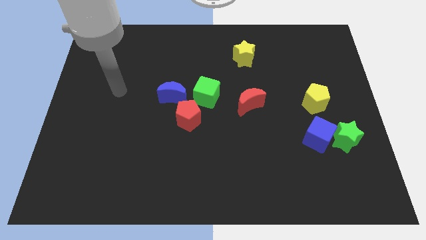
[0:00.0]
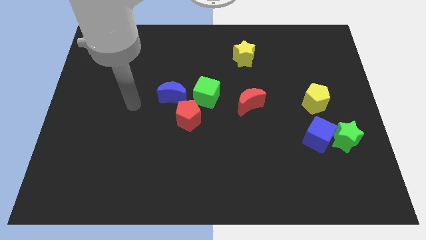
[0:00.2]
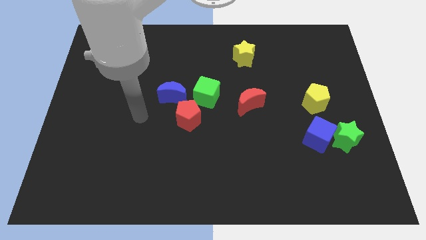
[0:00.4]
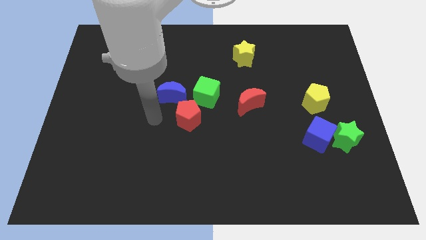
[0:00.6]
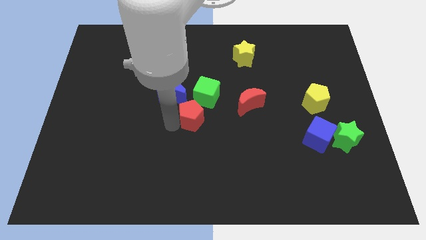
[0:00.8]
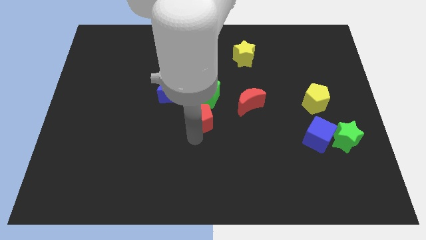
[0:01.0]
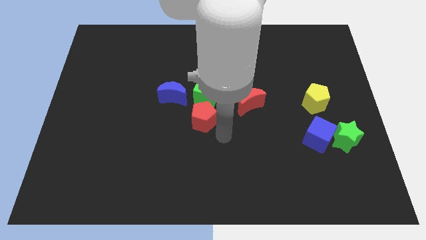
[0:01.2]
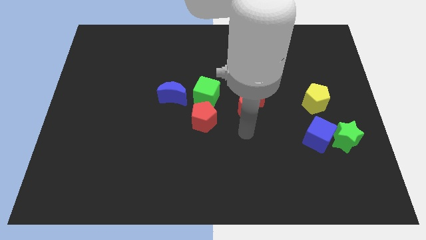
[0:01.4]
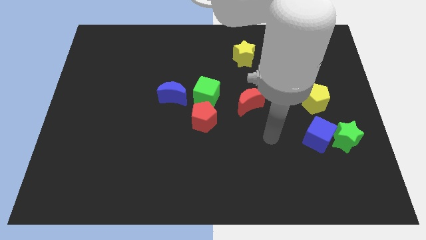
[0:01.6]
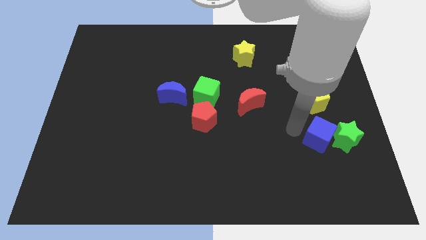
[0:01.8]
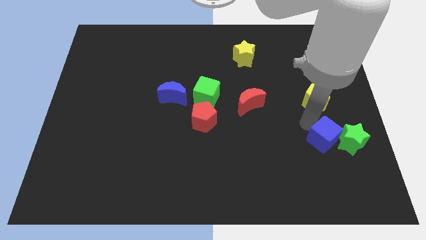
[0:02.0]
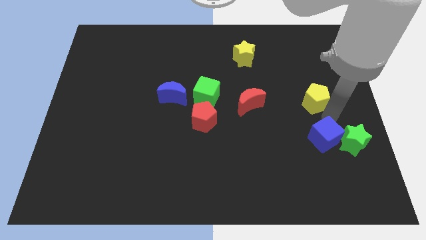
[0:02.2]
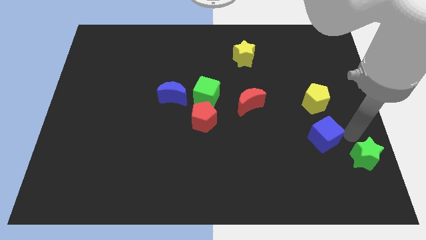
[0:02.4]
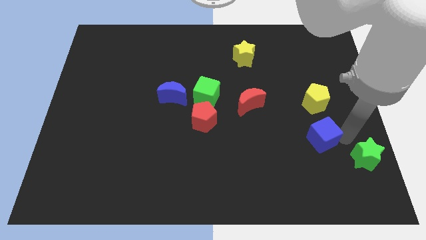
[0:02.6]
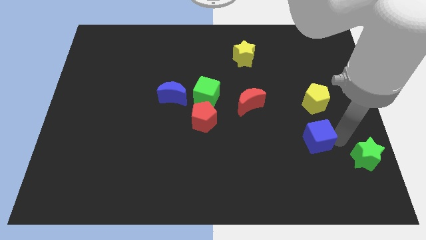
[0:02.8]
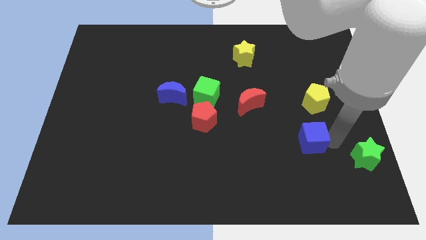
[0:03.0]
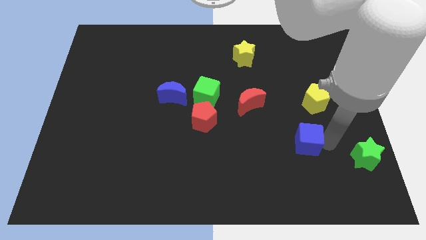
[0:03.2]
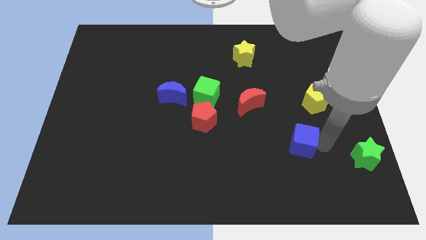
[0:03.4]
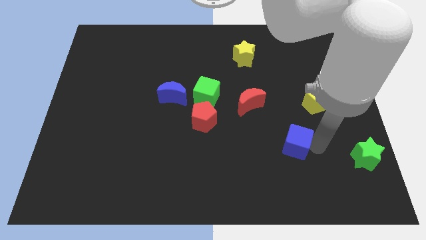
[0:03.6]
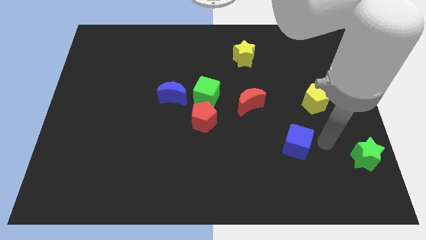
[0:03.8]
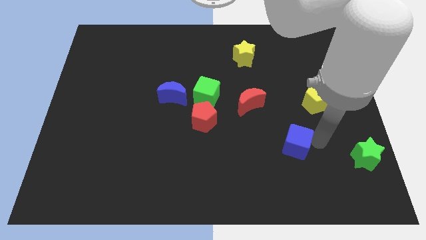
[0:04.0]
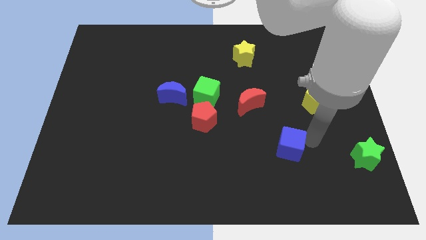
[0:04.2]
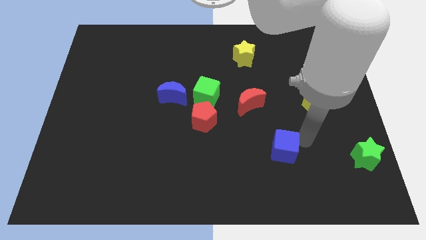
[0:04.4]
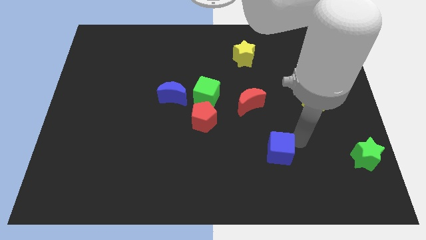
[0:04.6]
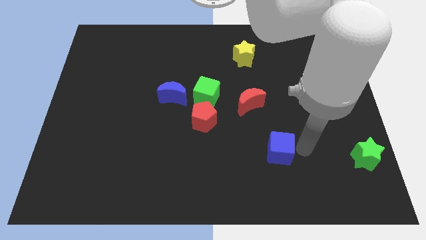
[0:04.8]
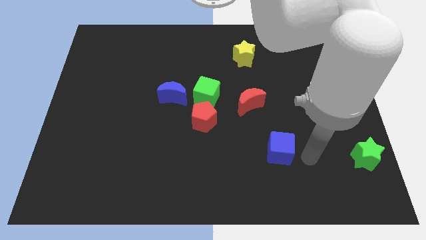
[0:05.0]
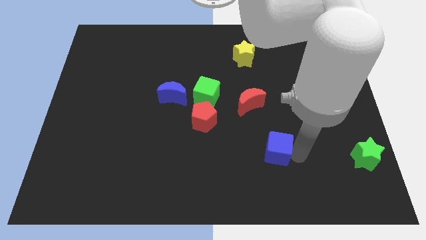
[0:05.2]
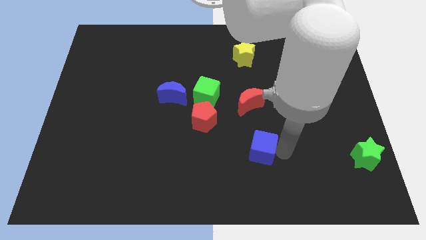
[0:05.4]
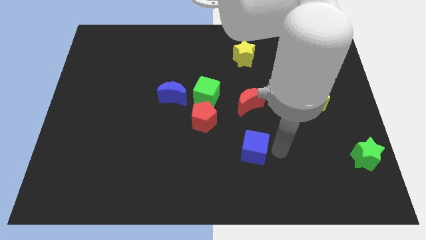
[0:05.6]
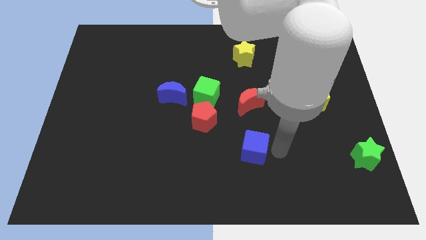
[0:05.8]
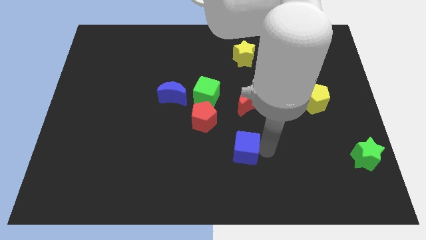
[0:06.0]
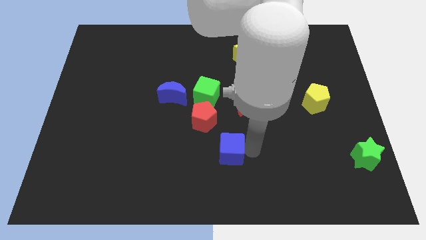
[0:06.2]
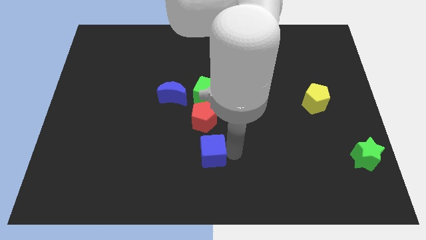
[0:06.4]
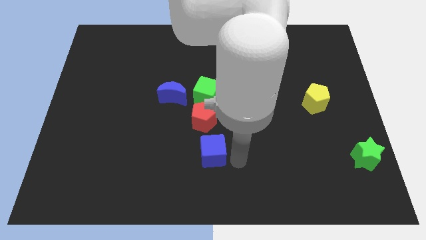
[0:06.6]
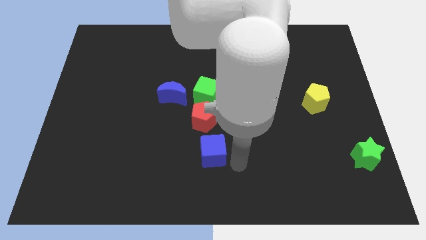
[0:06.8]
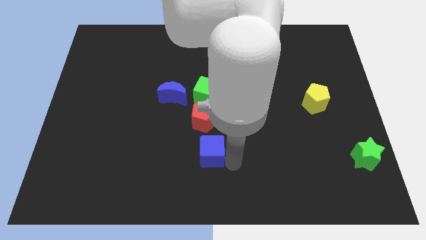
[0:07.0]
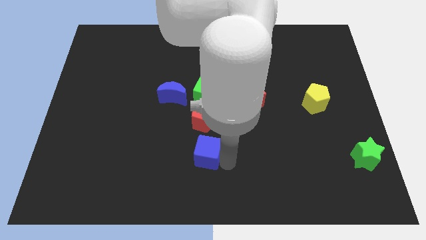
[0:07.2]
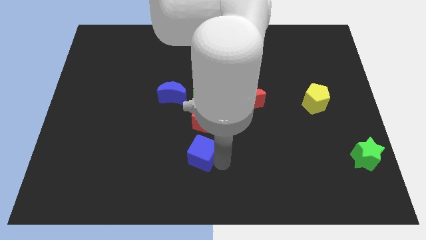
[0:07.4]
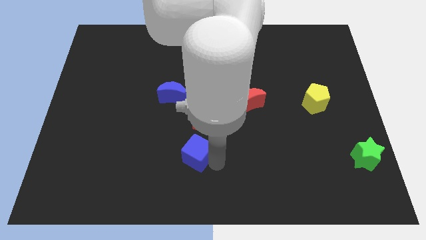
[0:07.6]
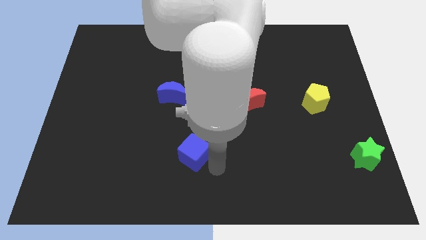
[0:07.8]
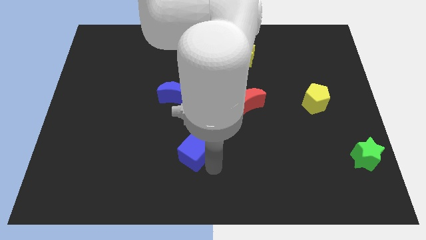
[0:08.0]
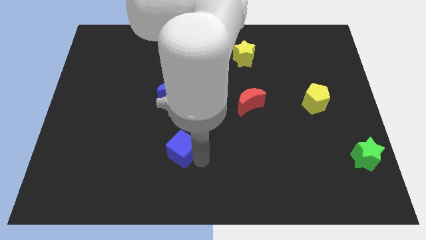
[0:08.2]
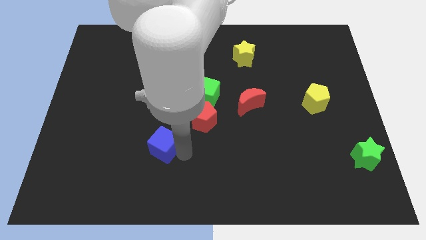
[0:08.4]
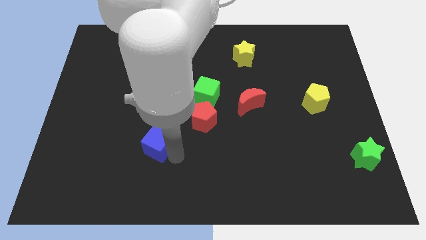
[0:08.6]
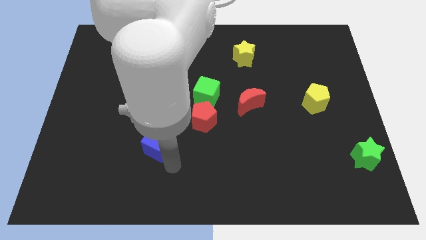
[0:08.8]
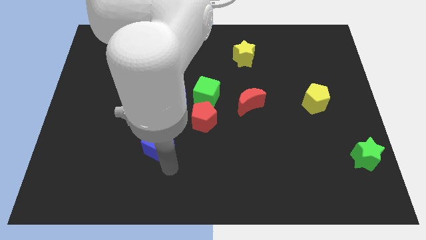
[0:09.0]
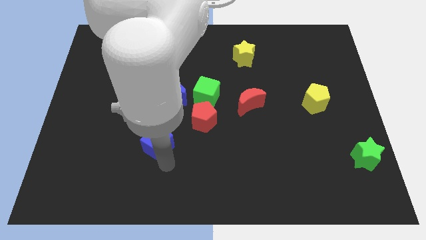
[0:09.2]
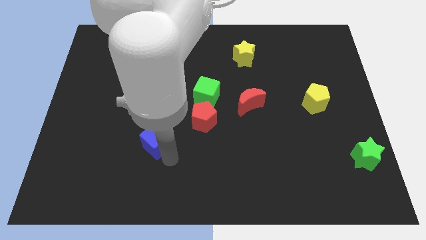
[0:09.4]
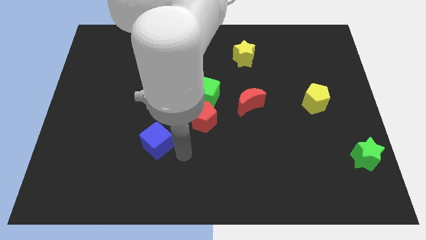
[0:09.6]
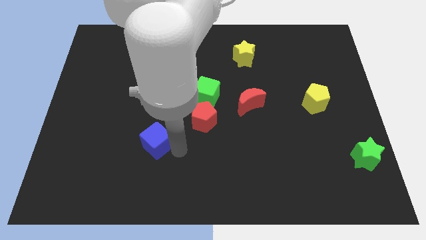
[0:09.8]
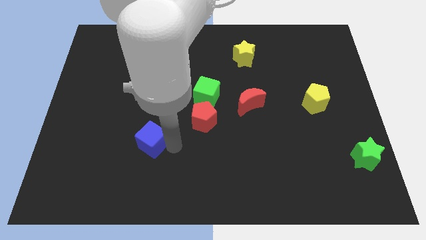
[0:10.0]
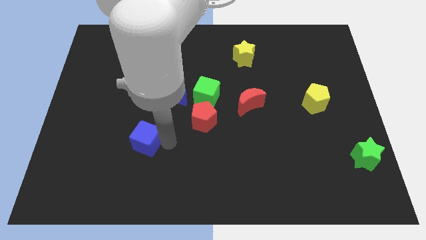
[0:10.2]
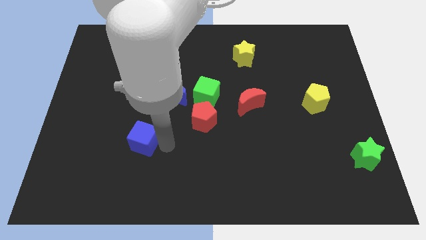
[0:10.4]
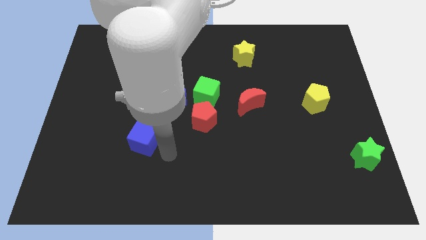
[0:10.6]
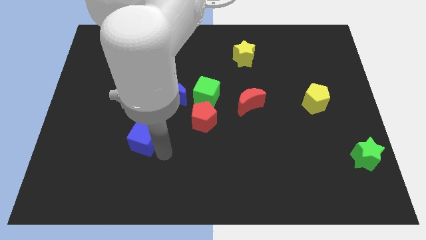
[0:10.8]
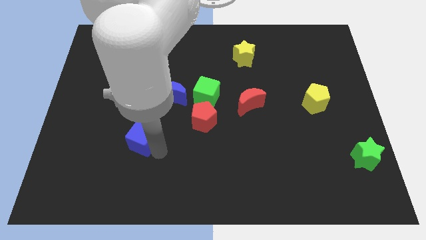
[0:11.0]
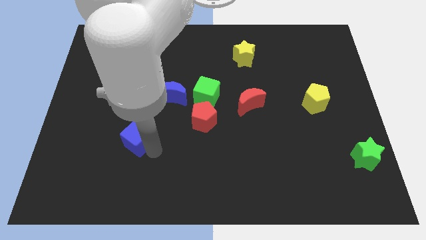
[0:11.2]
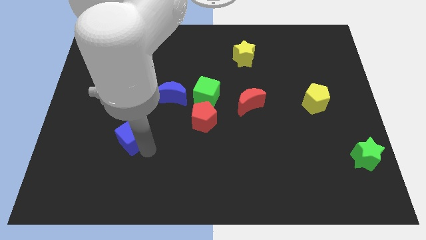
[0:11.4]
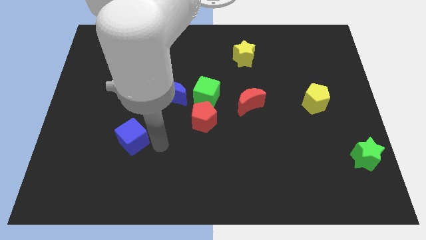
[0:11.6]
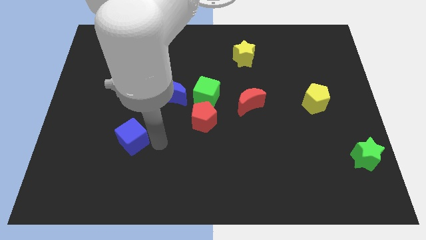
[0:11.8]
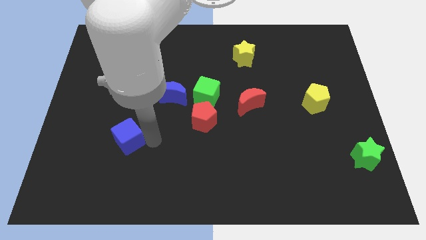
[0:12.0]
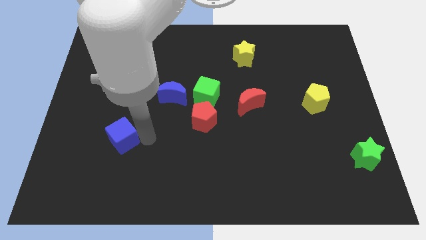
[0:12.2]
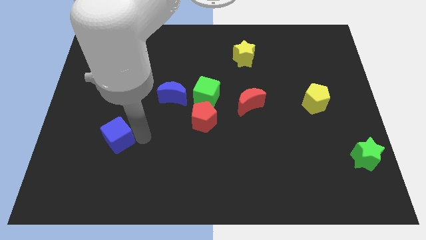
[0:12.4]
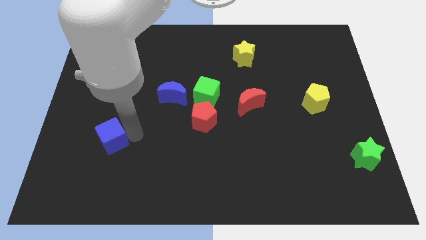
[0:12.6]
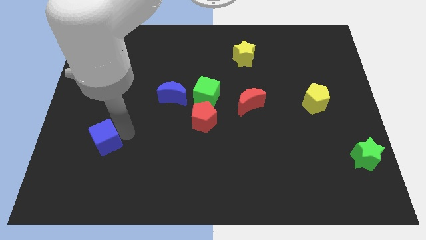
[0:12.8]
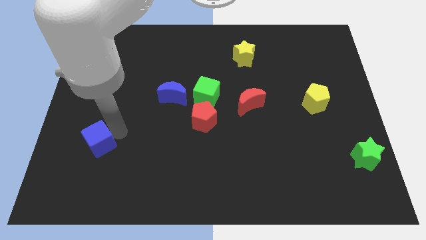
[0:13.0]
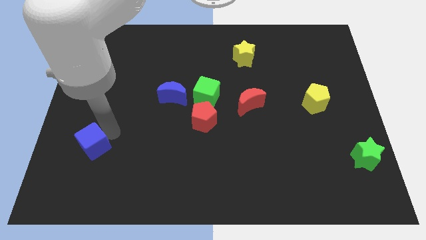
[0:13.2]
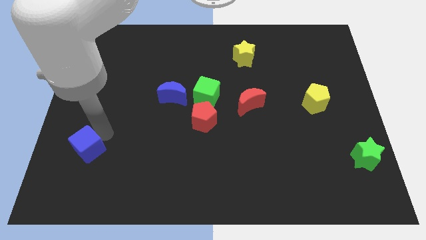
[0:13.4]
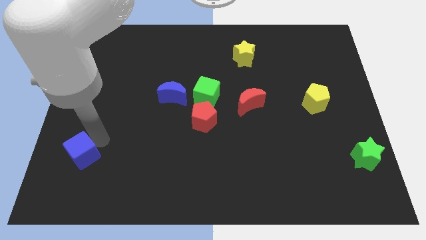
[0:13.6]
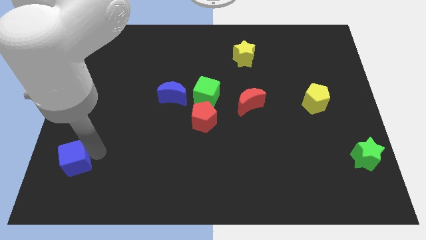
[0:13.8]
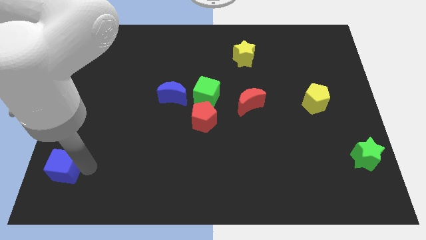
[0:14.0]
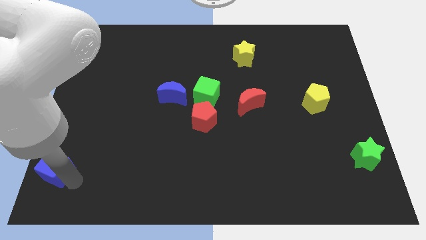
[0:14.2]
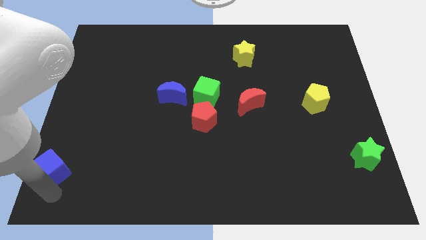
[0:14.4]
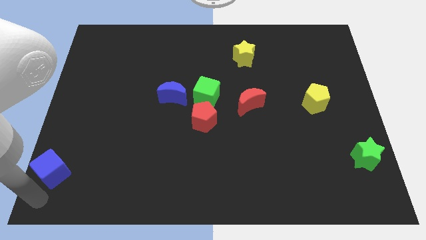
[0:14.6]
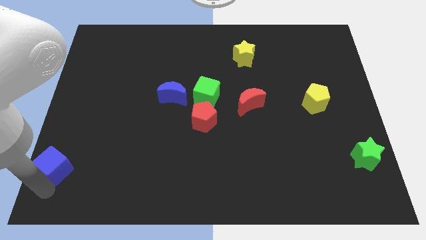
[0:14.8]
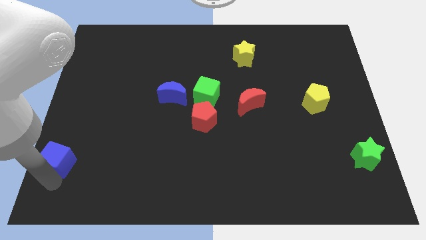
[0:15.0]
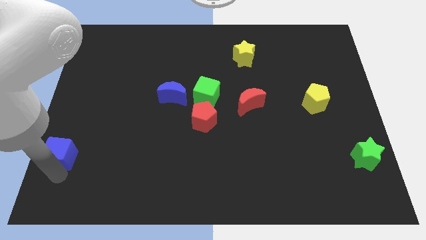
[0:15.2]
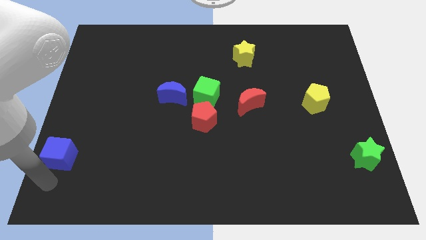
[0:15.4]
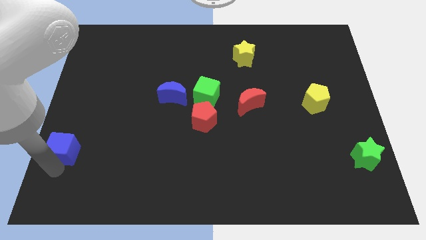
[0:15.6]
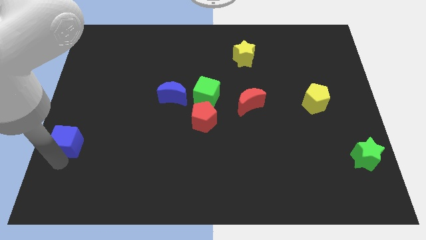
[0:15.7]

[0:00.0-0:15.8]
put the blue cube to the left side of the board
